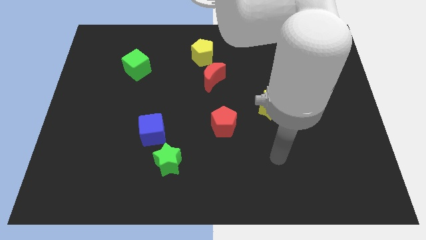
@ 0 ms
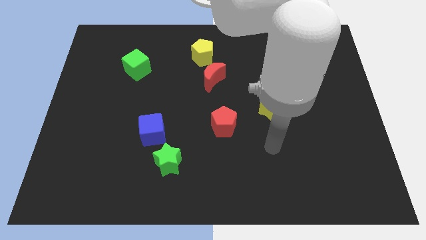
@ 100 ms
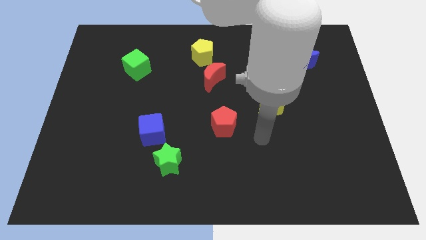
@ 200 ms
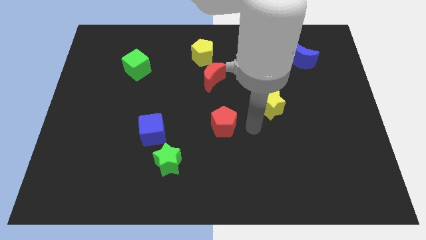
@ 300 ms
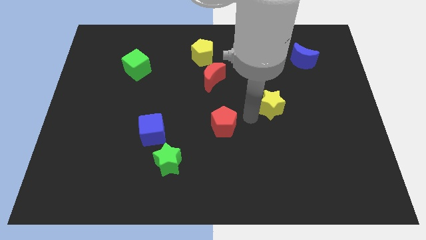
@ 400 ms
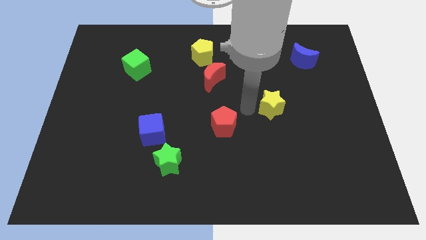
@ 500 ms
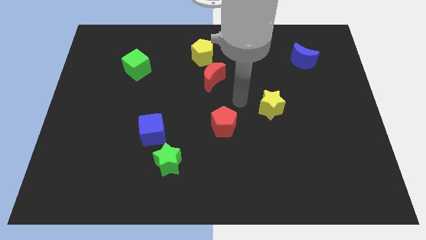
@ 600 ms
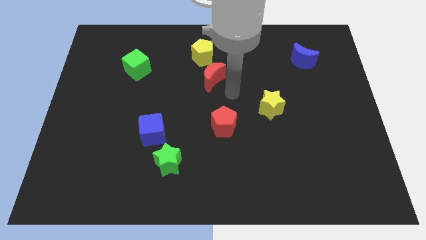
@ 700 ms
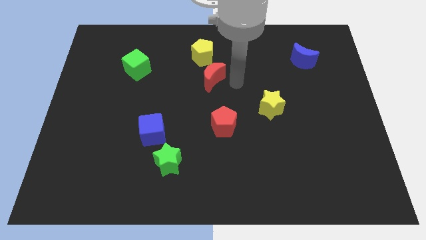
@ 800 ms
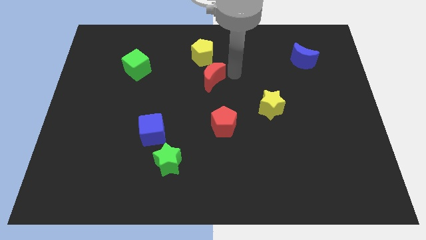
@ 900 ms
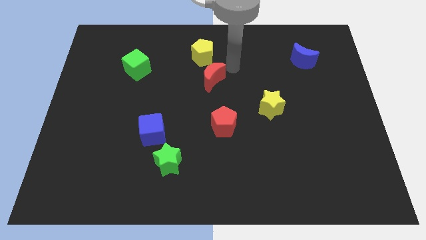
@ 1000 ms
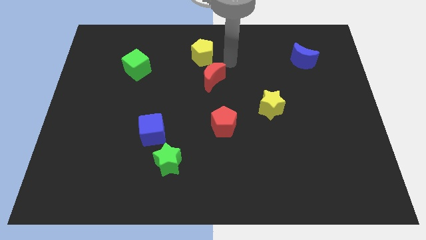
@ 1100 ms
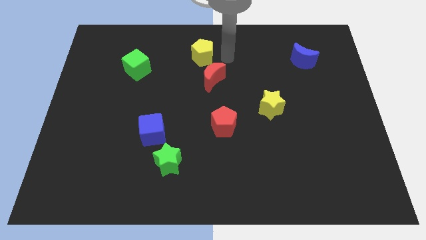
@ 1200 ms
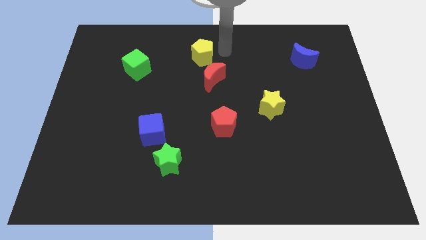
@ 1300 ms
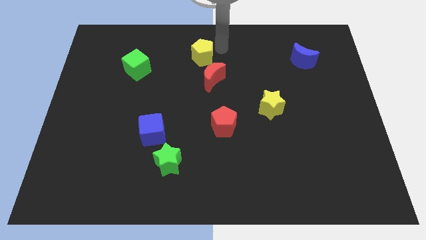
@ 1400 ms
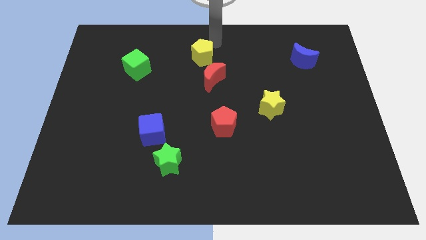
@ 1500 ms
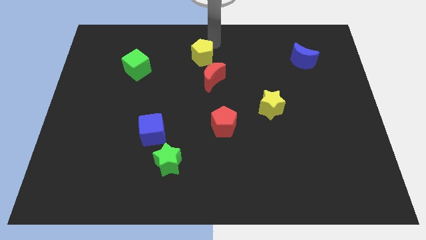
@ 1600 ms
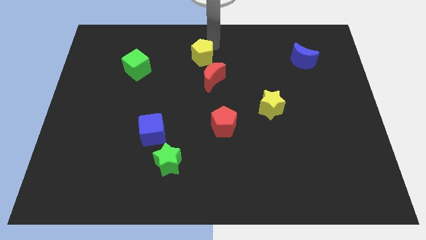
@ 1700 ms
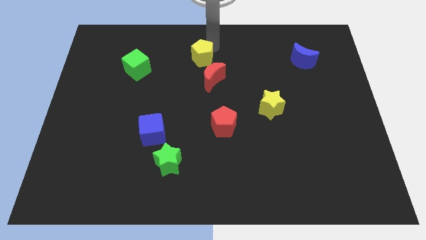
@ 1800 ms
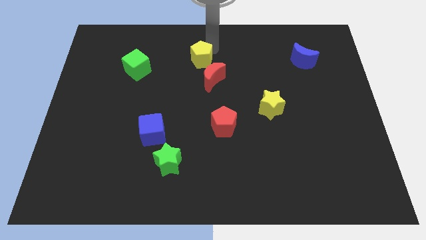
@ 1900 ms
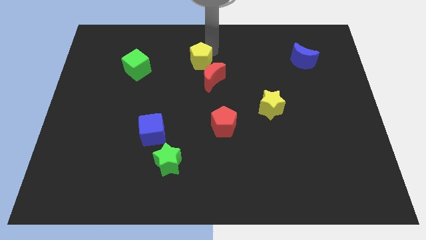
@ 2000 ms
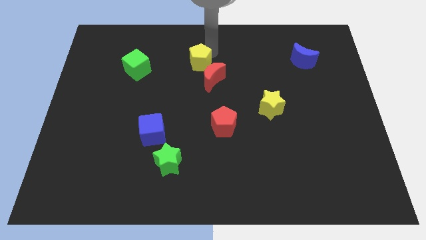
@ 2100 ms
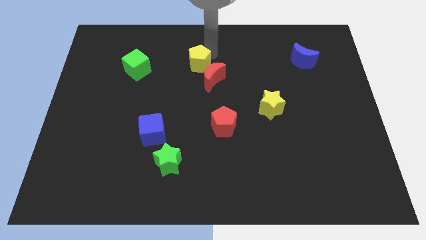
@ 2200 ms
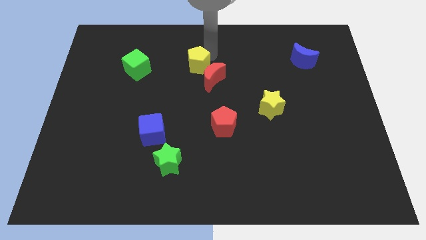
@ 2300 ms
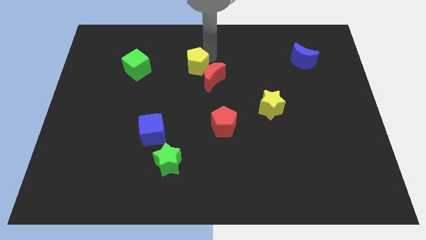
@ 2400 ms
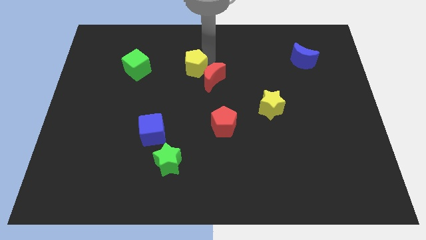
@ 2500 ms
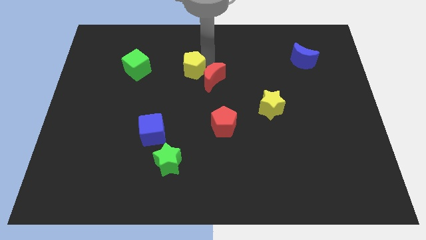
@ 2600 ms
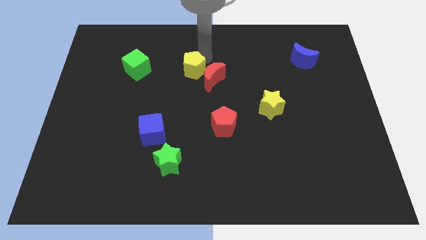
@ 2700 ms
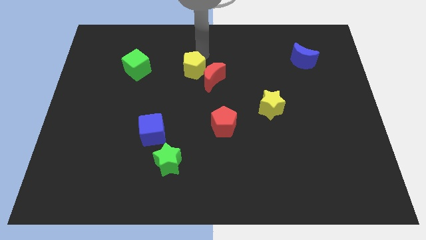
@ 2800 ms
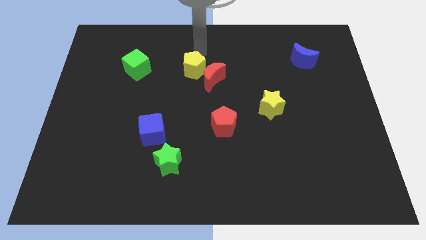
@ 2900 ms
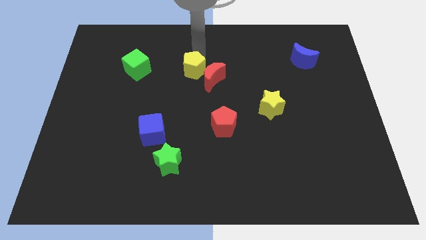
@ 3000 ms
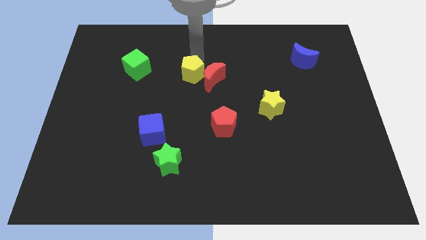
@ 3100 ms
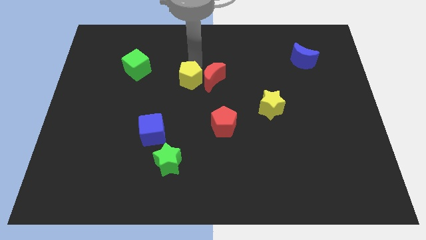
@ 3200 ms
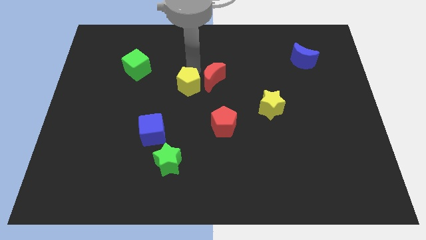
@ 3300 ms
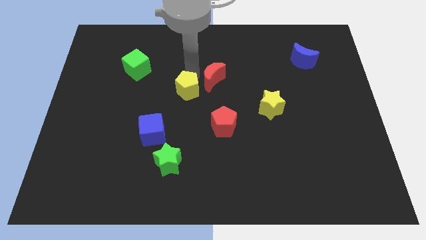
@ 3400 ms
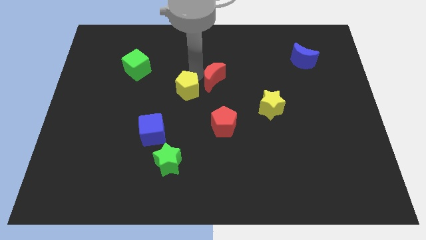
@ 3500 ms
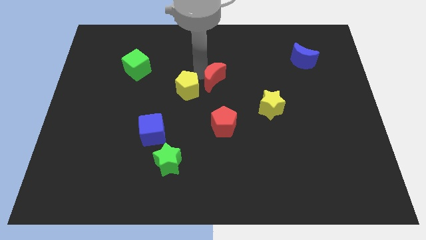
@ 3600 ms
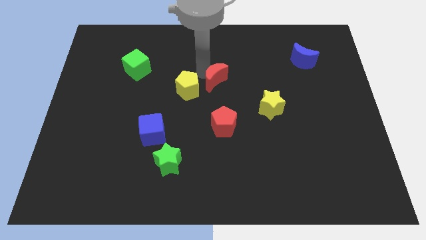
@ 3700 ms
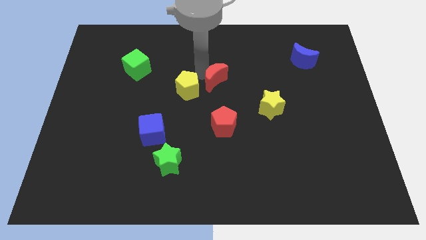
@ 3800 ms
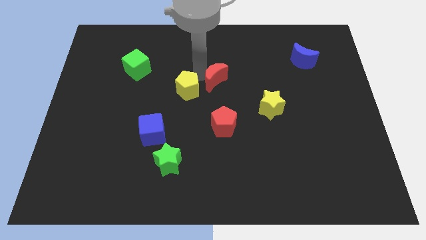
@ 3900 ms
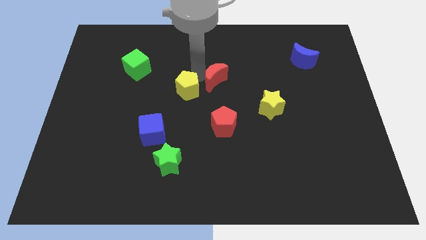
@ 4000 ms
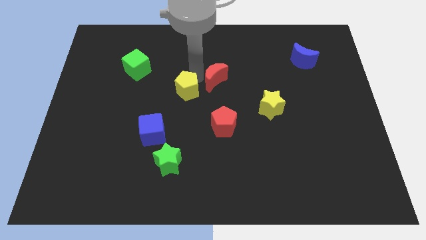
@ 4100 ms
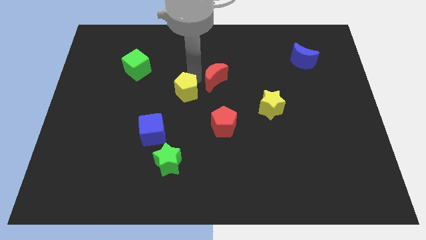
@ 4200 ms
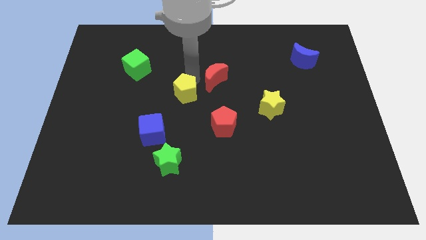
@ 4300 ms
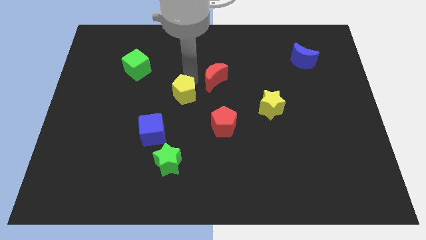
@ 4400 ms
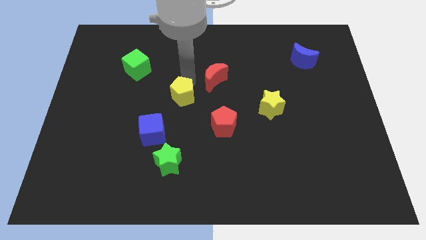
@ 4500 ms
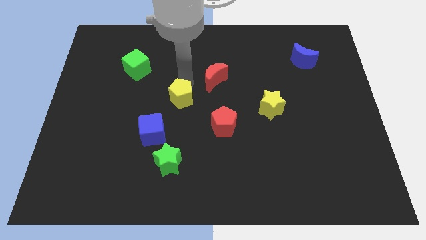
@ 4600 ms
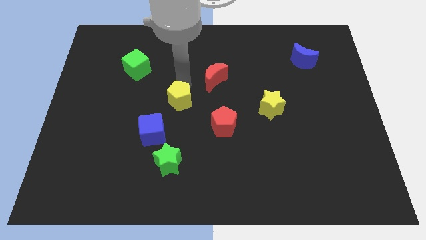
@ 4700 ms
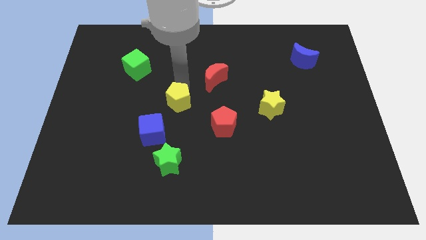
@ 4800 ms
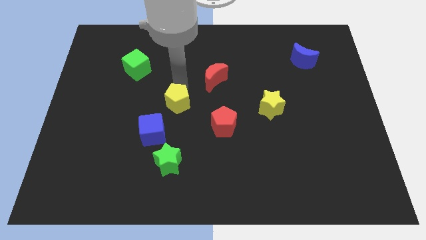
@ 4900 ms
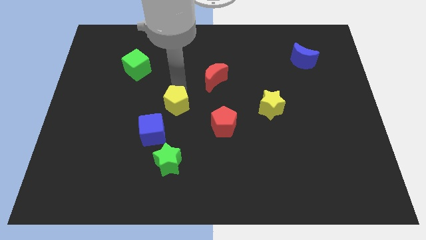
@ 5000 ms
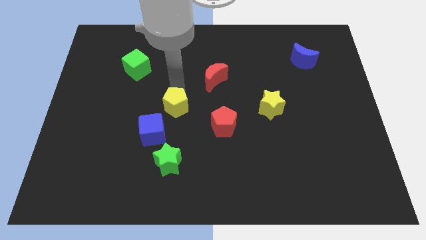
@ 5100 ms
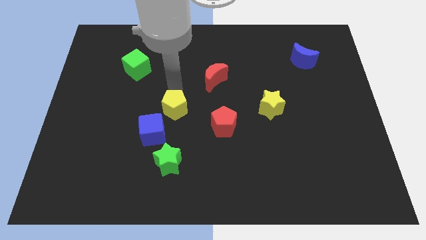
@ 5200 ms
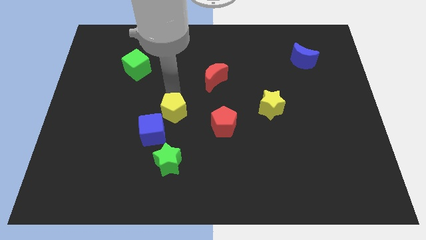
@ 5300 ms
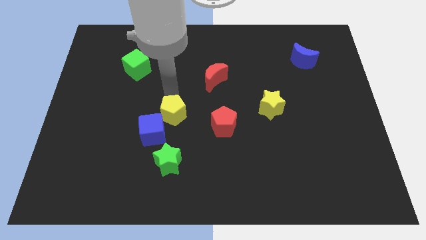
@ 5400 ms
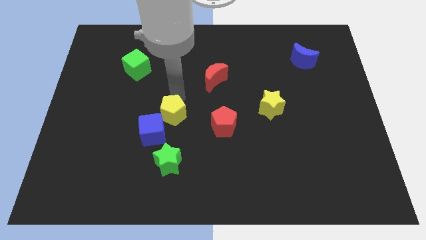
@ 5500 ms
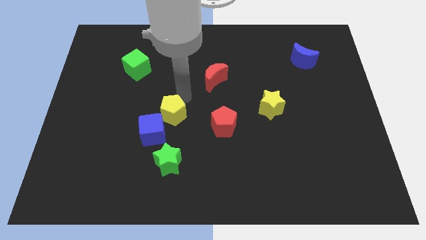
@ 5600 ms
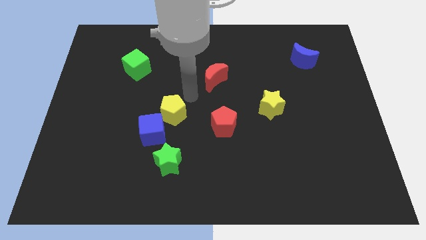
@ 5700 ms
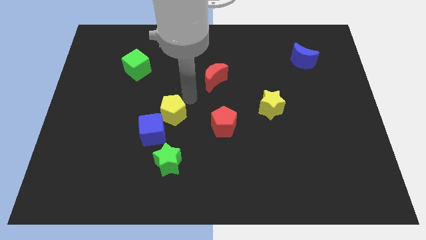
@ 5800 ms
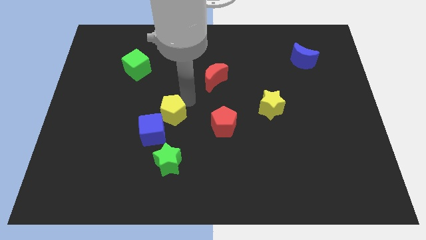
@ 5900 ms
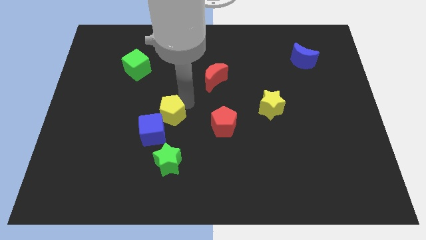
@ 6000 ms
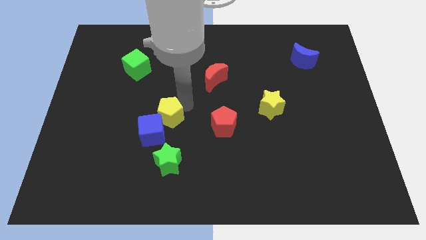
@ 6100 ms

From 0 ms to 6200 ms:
move the yellow pentagon towards the blue cube

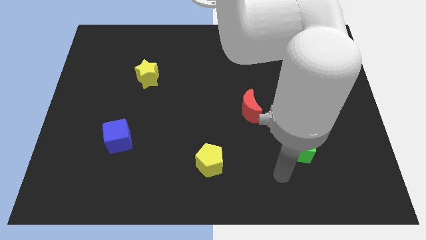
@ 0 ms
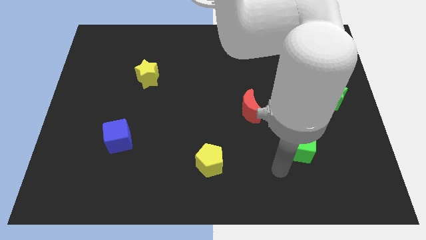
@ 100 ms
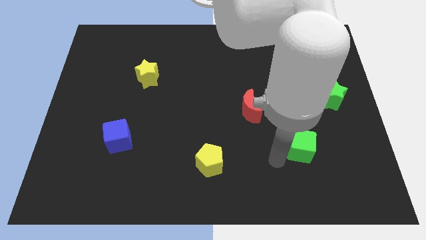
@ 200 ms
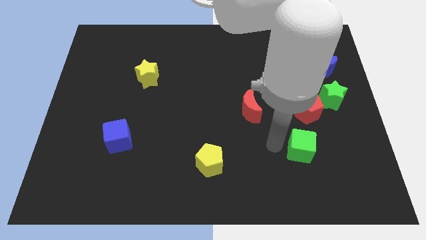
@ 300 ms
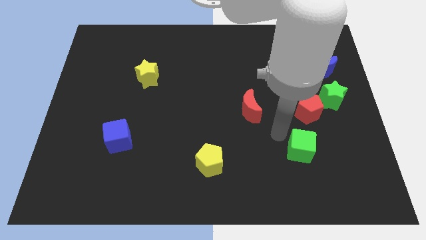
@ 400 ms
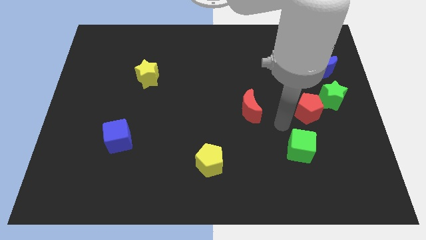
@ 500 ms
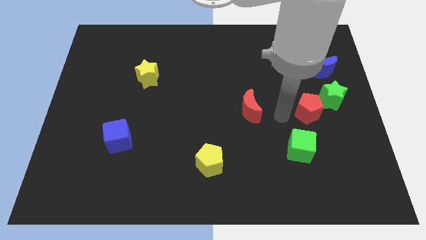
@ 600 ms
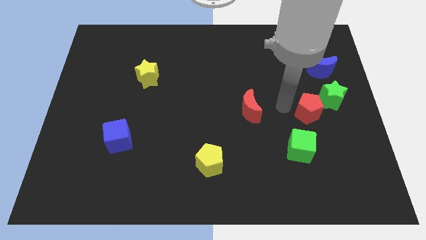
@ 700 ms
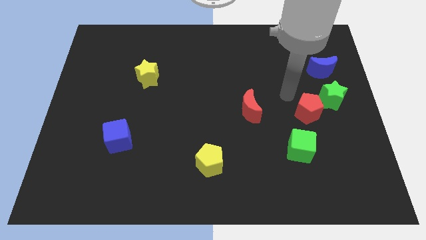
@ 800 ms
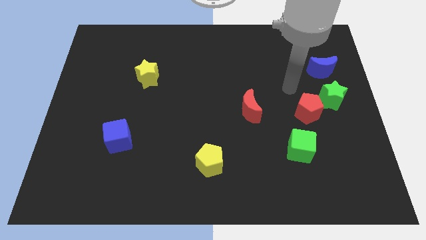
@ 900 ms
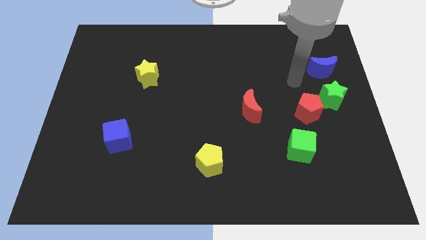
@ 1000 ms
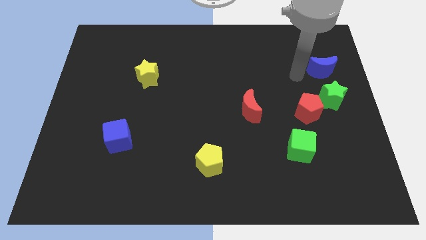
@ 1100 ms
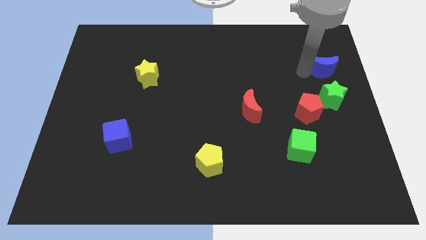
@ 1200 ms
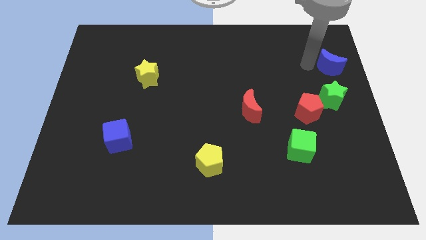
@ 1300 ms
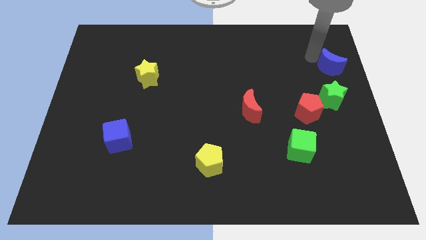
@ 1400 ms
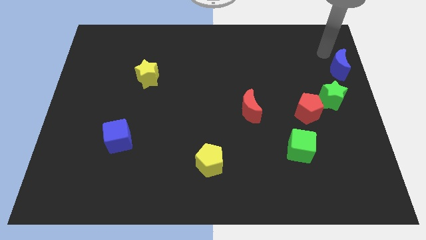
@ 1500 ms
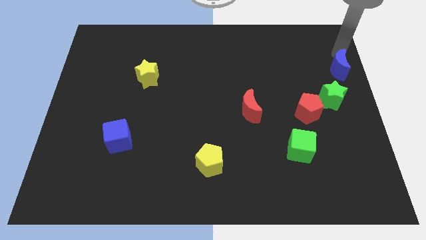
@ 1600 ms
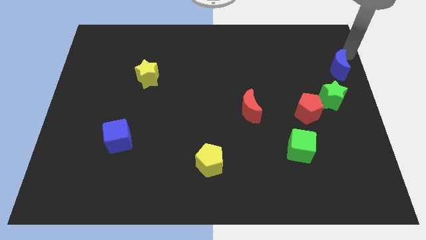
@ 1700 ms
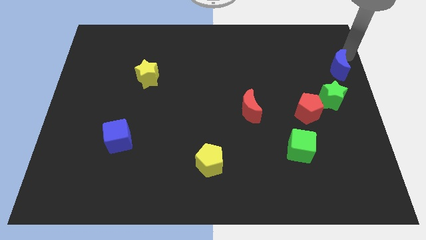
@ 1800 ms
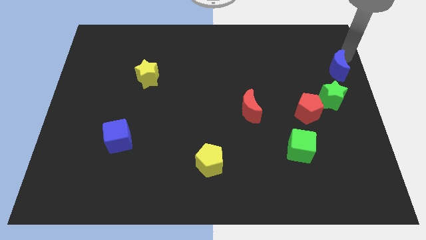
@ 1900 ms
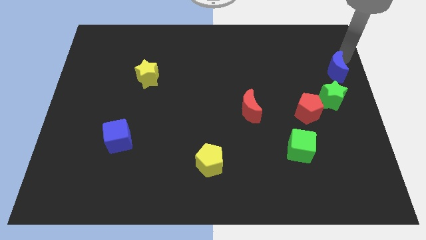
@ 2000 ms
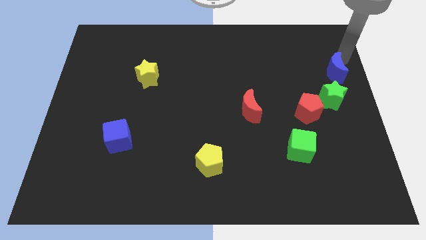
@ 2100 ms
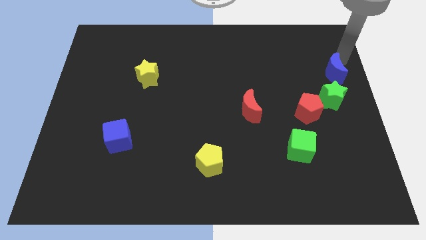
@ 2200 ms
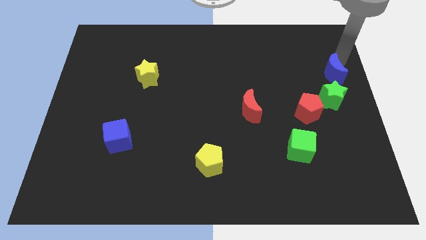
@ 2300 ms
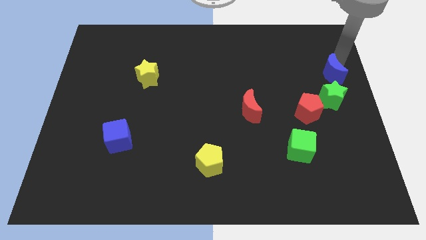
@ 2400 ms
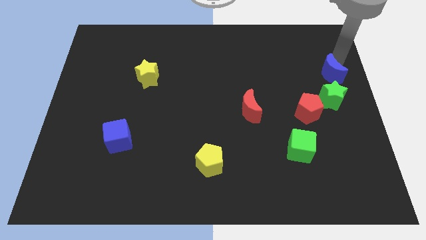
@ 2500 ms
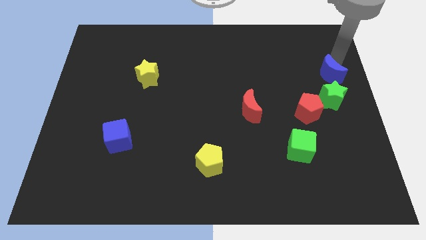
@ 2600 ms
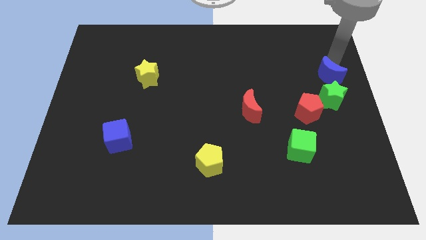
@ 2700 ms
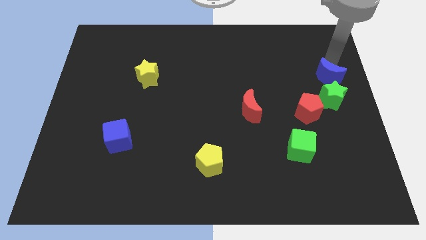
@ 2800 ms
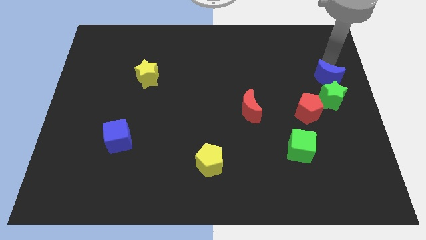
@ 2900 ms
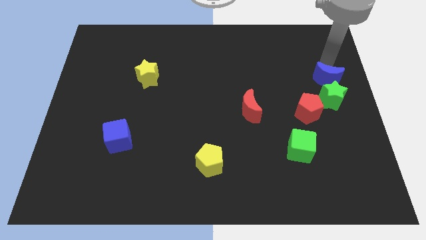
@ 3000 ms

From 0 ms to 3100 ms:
move the blue moon to the green star
